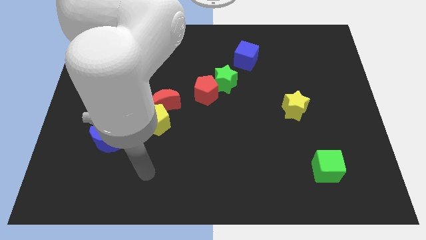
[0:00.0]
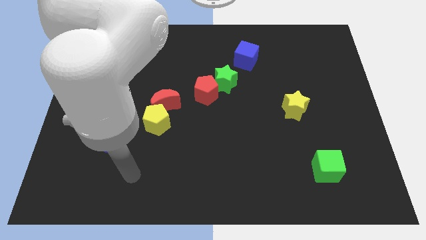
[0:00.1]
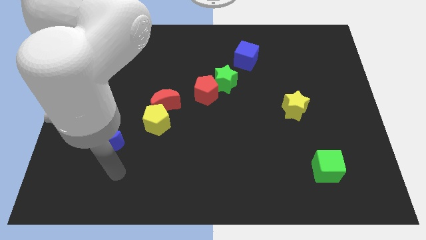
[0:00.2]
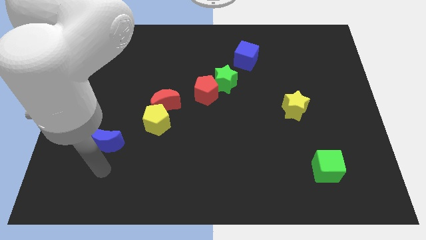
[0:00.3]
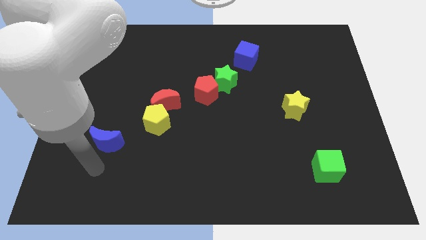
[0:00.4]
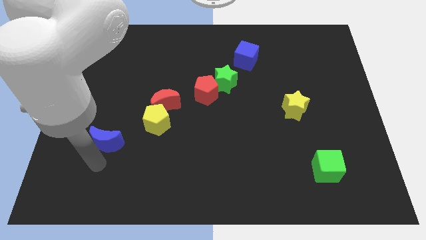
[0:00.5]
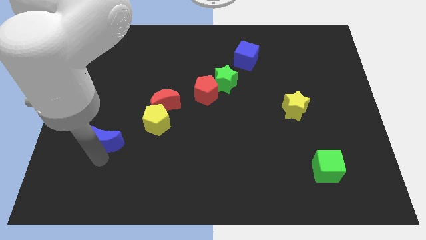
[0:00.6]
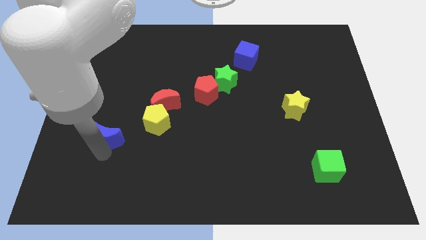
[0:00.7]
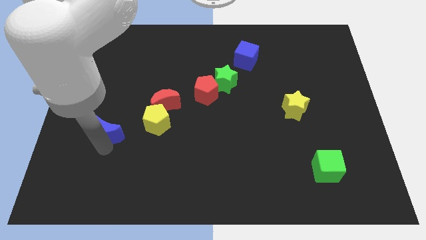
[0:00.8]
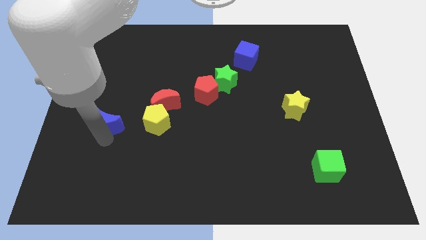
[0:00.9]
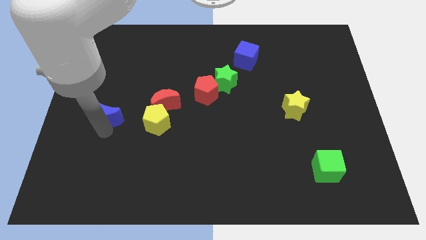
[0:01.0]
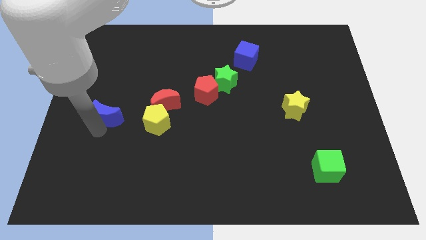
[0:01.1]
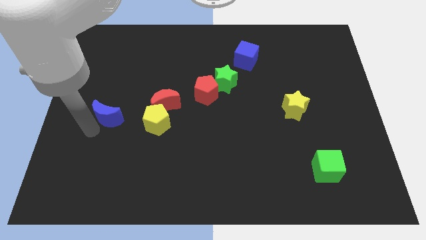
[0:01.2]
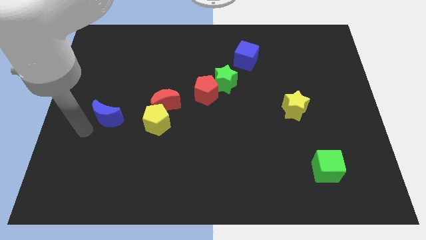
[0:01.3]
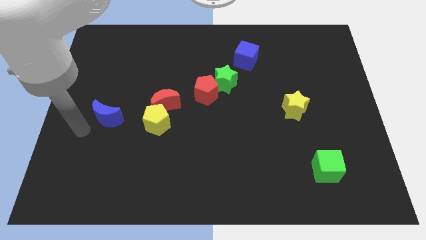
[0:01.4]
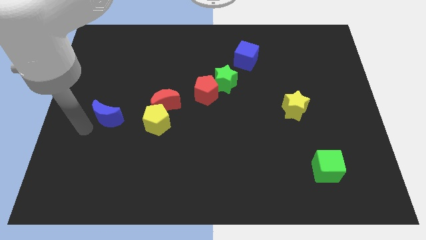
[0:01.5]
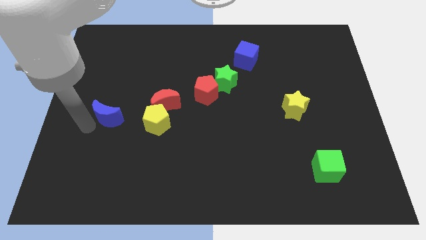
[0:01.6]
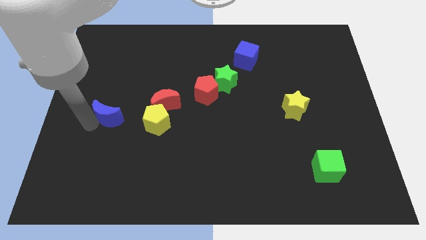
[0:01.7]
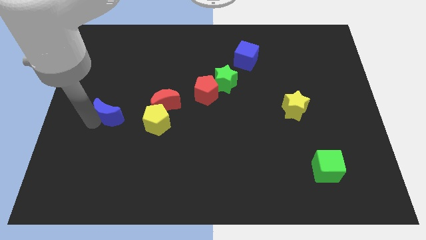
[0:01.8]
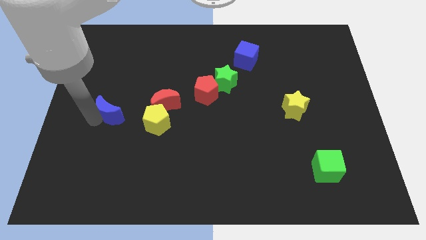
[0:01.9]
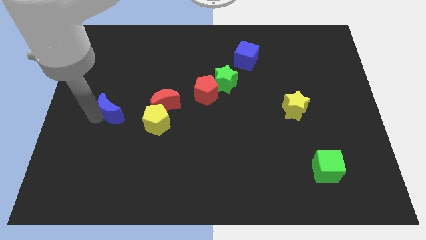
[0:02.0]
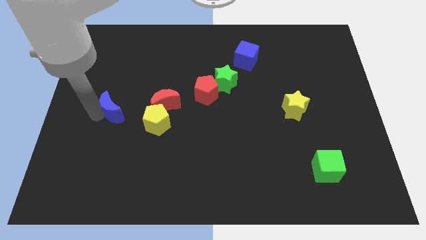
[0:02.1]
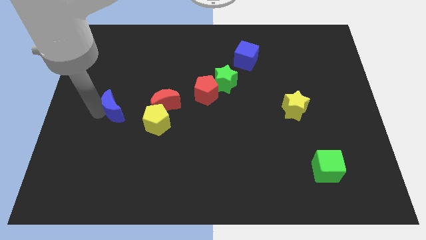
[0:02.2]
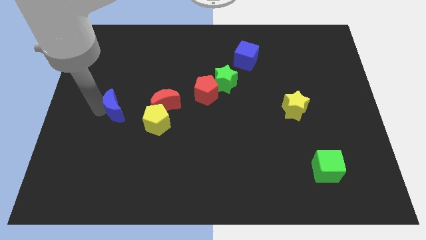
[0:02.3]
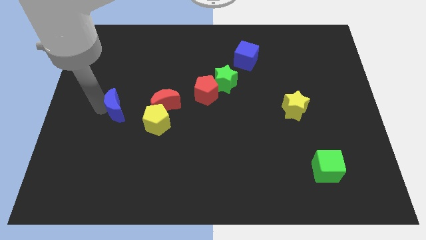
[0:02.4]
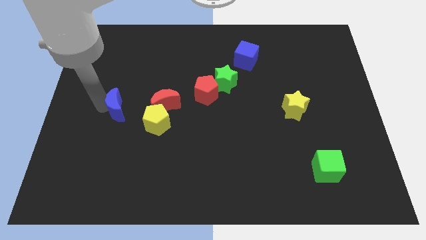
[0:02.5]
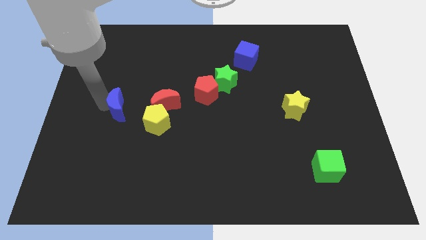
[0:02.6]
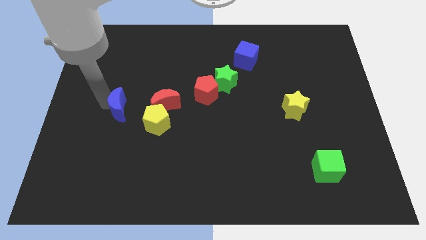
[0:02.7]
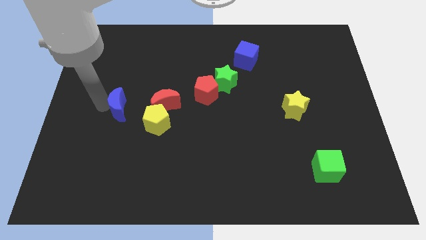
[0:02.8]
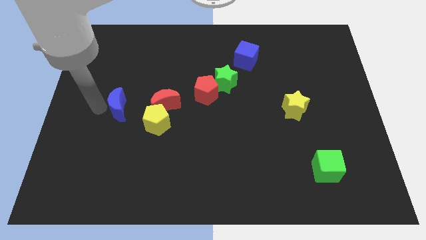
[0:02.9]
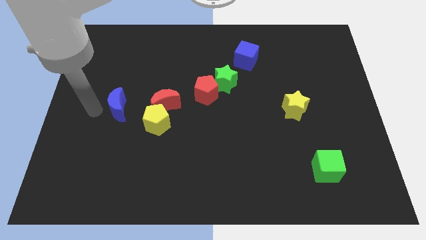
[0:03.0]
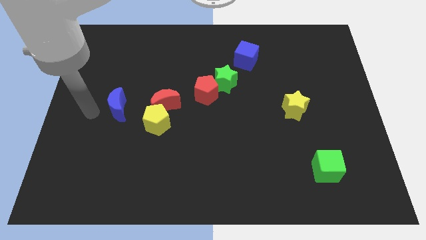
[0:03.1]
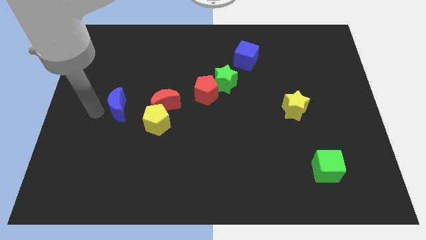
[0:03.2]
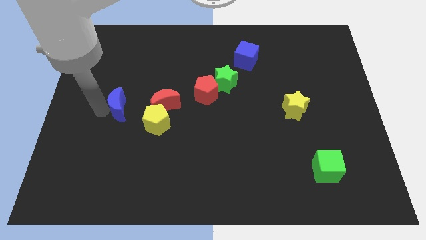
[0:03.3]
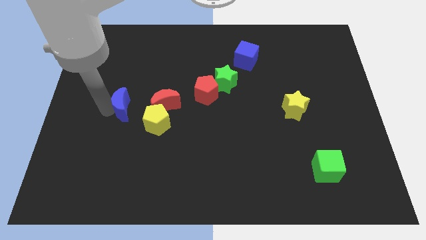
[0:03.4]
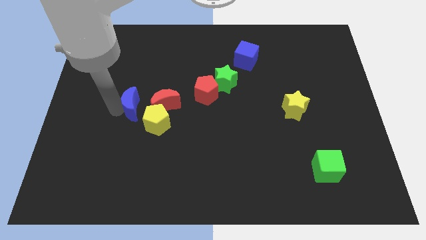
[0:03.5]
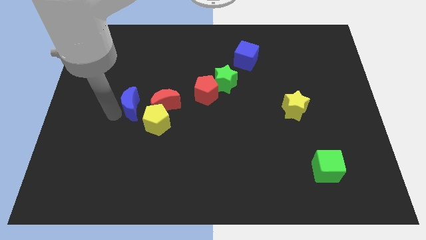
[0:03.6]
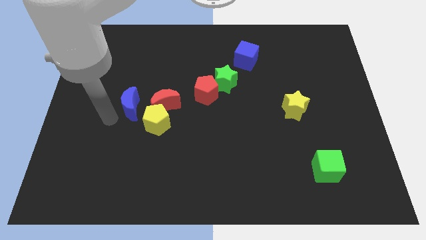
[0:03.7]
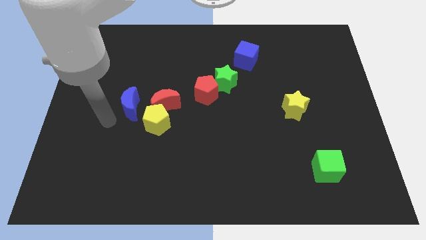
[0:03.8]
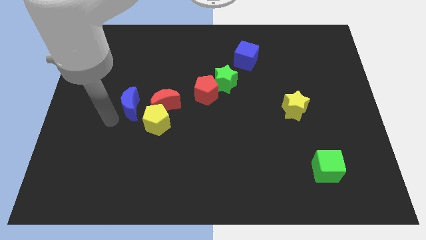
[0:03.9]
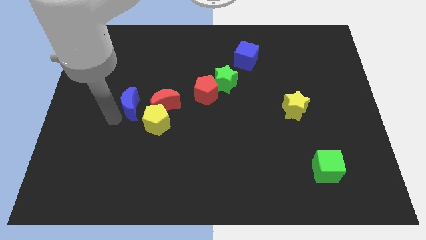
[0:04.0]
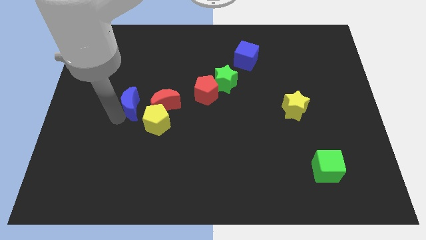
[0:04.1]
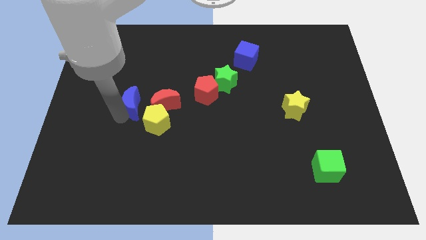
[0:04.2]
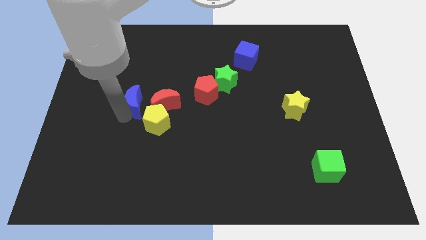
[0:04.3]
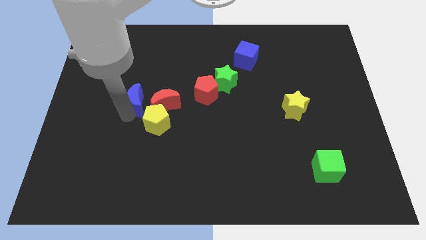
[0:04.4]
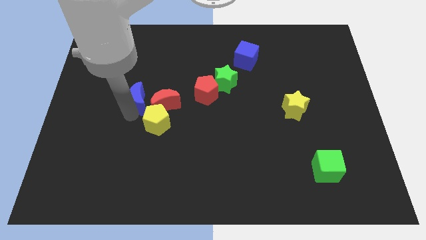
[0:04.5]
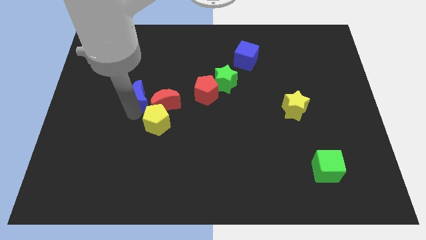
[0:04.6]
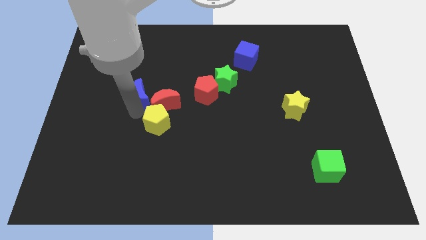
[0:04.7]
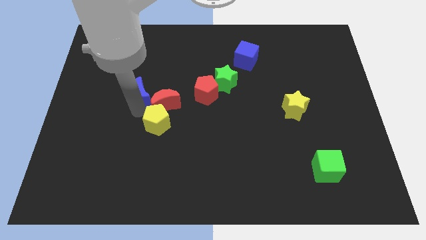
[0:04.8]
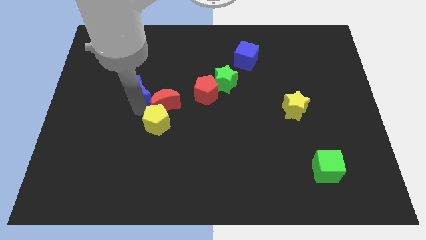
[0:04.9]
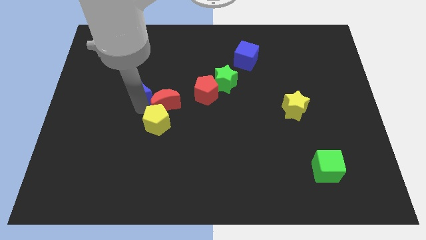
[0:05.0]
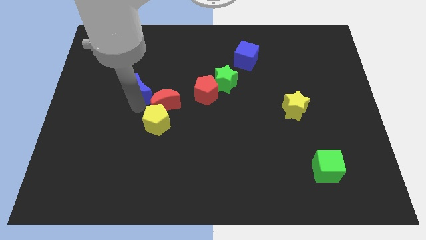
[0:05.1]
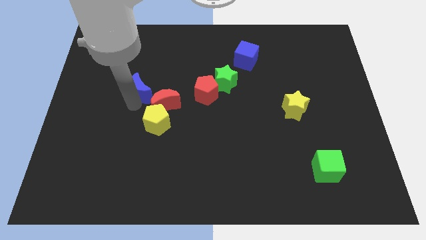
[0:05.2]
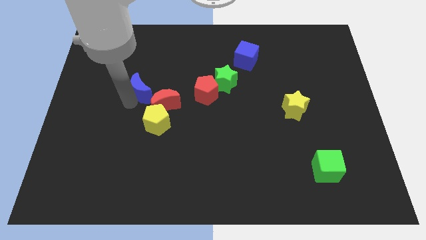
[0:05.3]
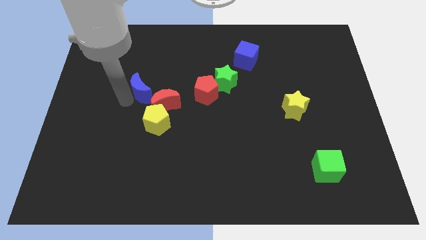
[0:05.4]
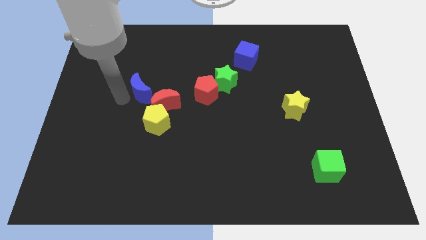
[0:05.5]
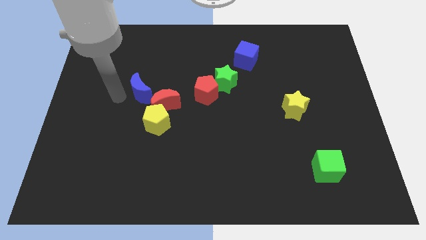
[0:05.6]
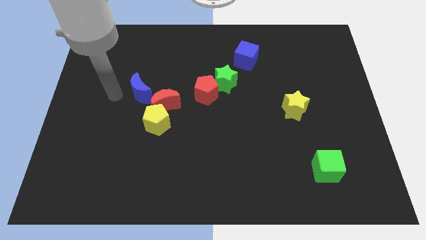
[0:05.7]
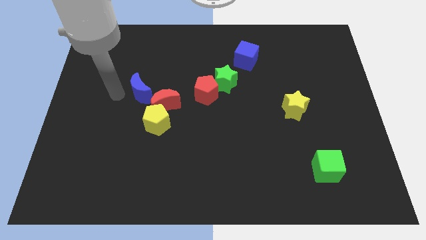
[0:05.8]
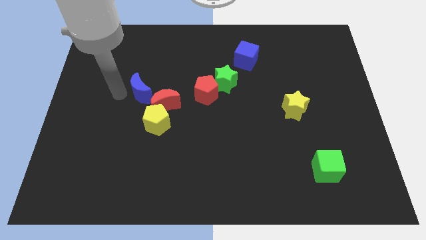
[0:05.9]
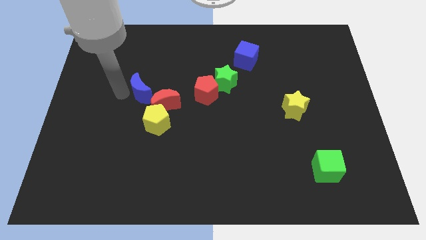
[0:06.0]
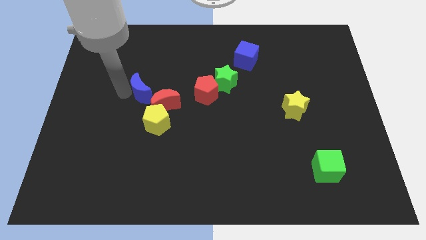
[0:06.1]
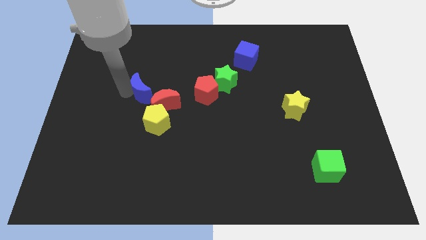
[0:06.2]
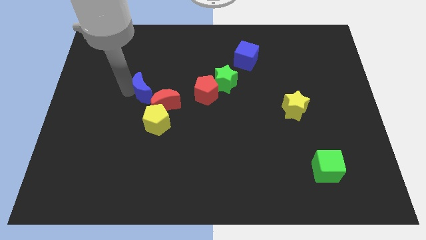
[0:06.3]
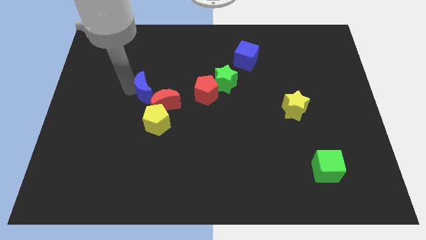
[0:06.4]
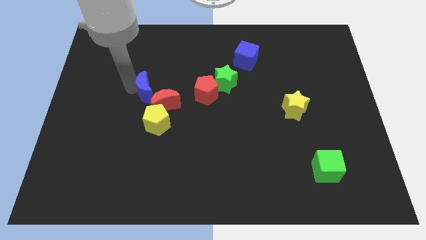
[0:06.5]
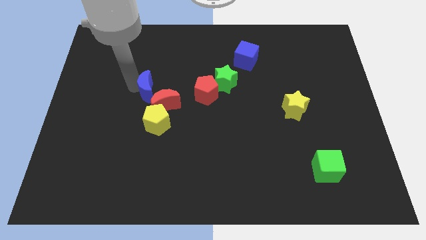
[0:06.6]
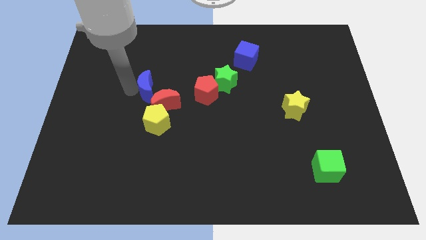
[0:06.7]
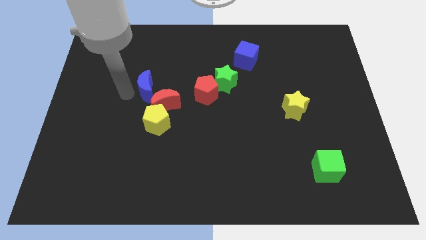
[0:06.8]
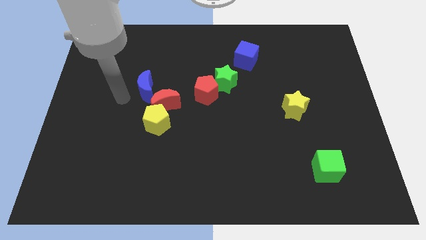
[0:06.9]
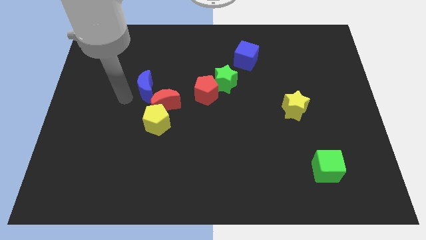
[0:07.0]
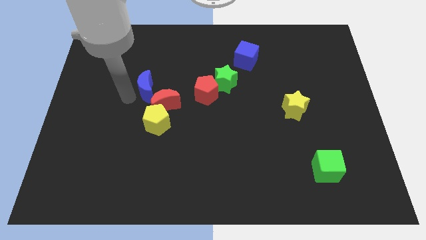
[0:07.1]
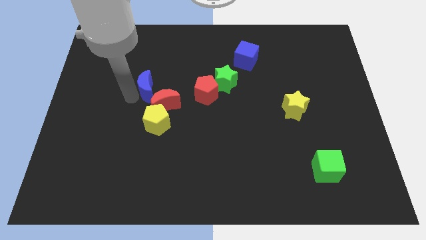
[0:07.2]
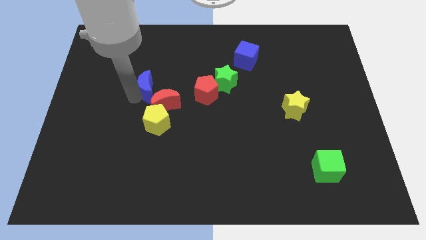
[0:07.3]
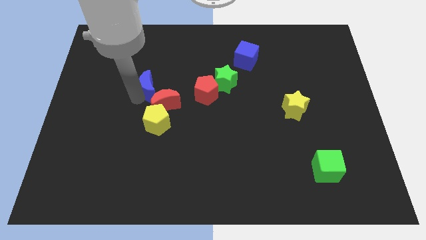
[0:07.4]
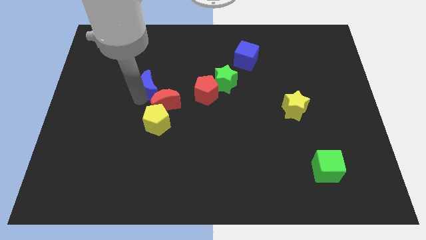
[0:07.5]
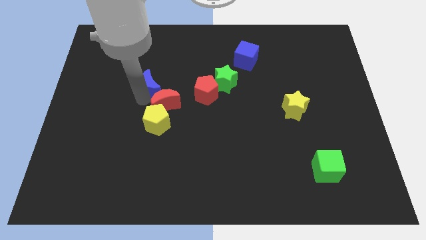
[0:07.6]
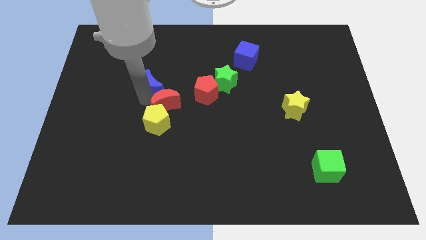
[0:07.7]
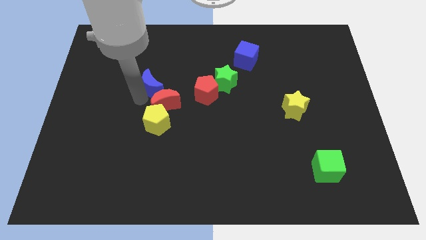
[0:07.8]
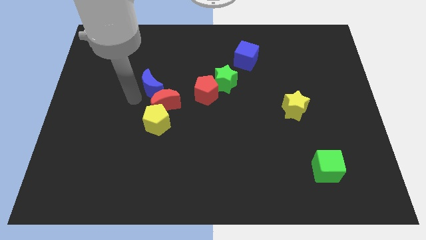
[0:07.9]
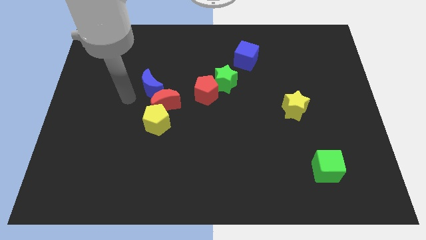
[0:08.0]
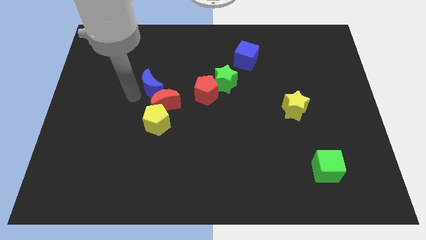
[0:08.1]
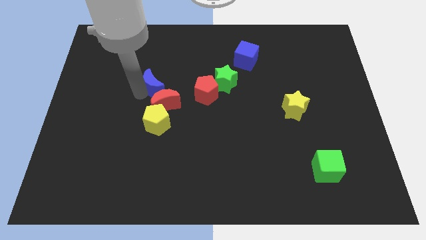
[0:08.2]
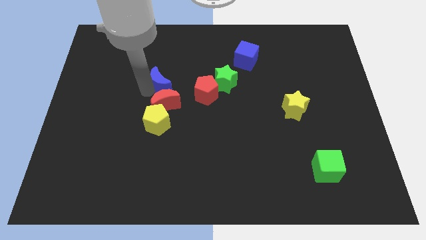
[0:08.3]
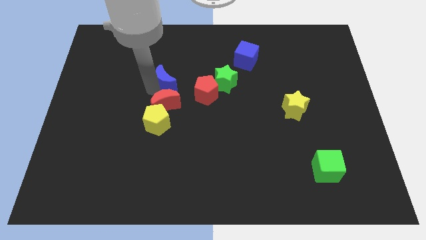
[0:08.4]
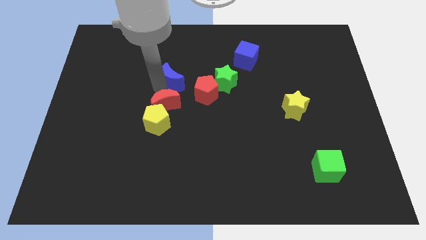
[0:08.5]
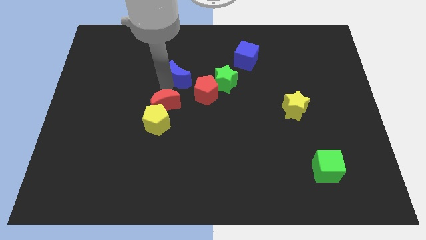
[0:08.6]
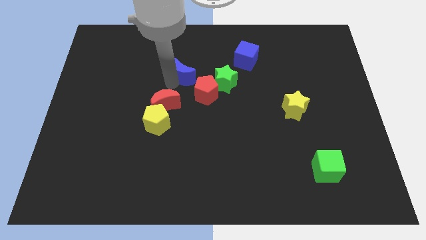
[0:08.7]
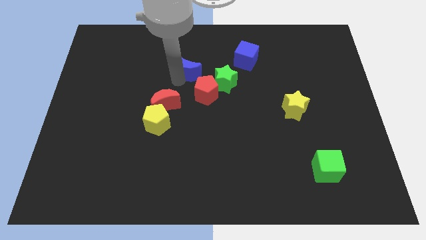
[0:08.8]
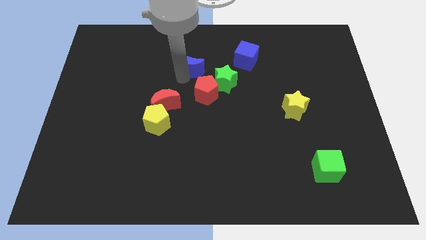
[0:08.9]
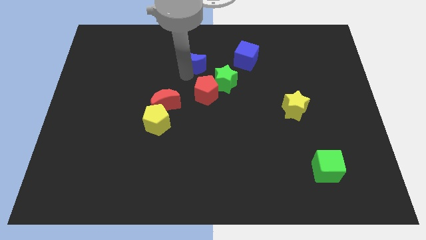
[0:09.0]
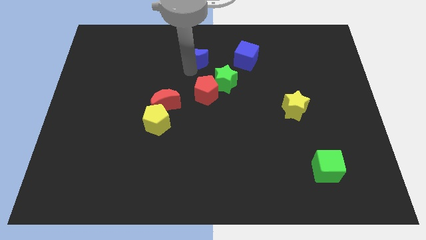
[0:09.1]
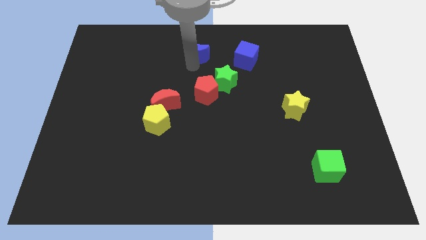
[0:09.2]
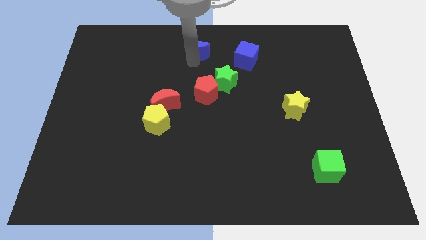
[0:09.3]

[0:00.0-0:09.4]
put the blue moon to the top
